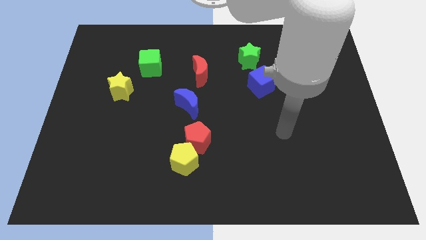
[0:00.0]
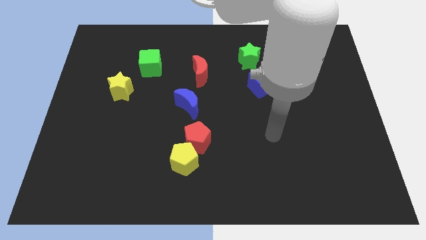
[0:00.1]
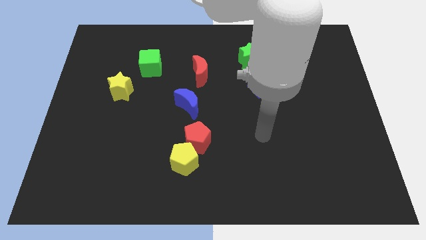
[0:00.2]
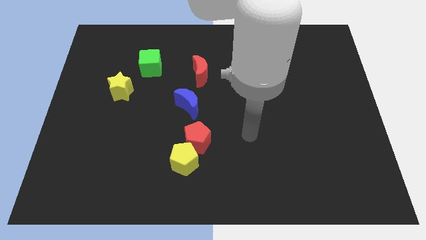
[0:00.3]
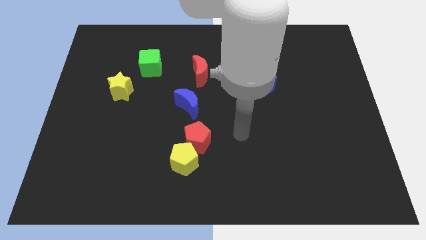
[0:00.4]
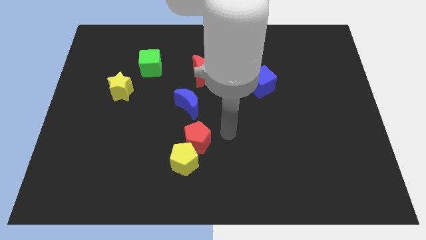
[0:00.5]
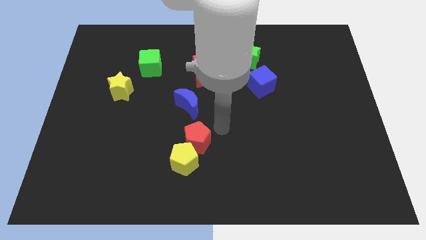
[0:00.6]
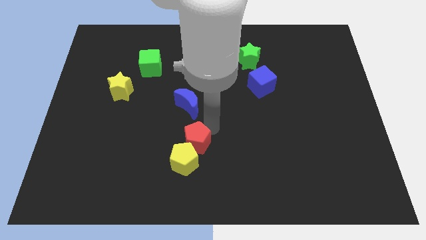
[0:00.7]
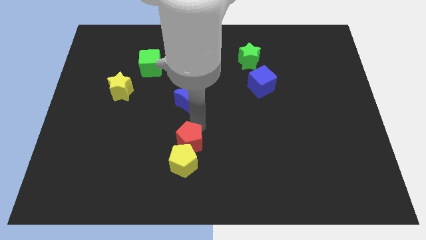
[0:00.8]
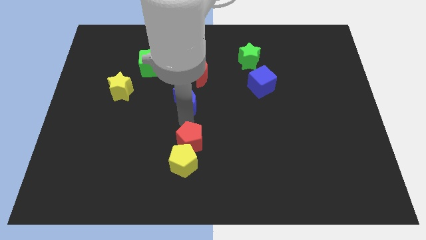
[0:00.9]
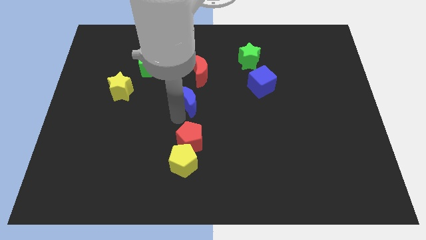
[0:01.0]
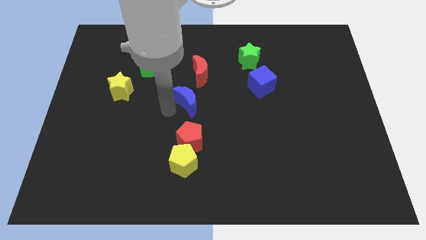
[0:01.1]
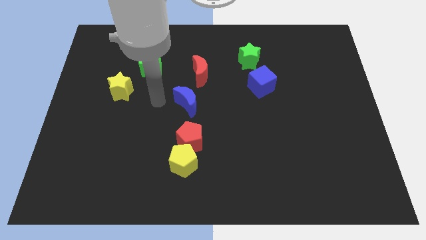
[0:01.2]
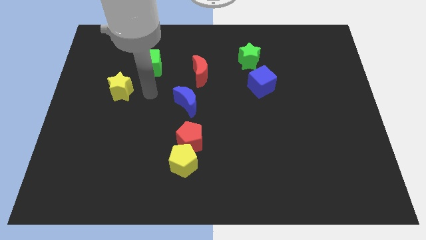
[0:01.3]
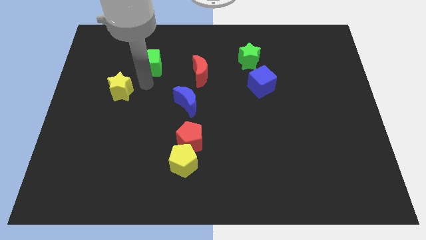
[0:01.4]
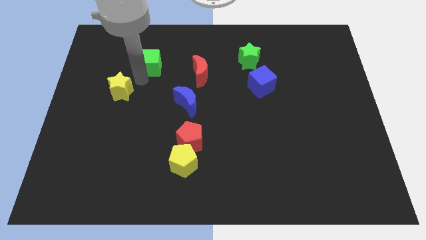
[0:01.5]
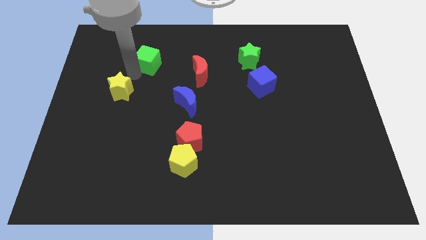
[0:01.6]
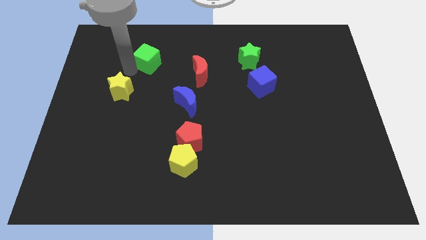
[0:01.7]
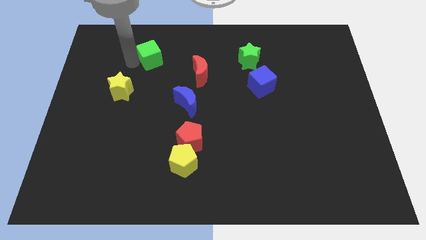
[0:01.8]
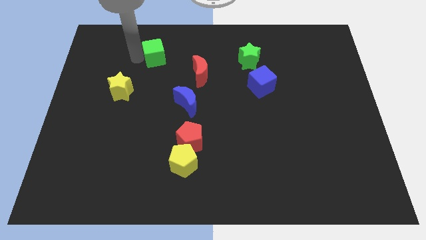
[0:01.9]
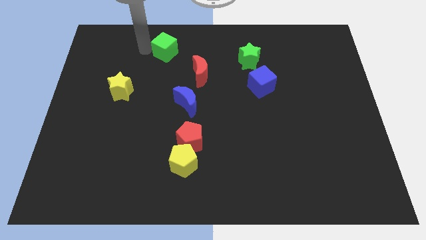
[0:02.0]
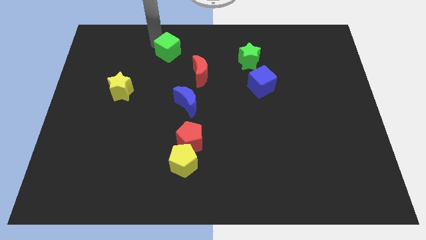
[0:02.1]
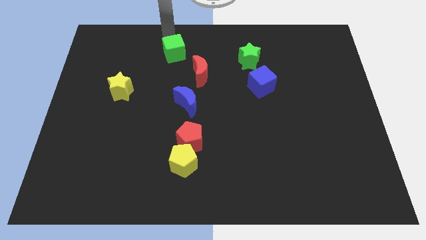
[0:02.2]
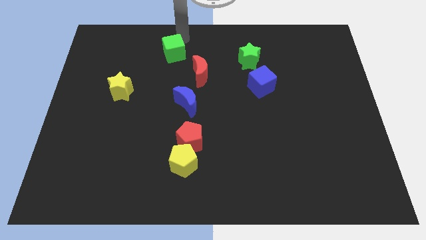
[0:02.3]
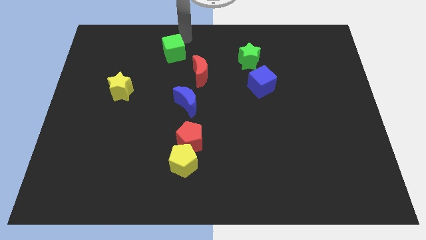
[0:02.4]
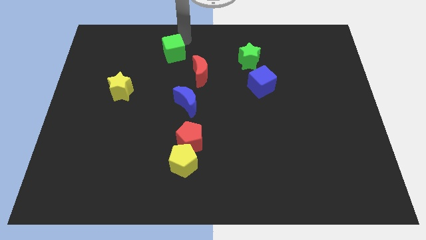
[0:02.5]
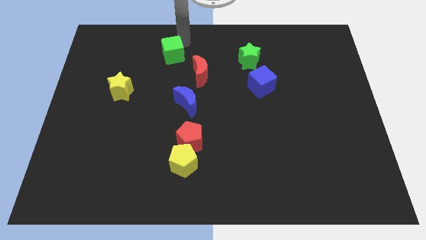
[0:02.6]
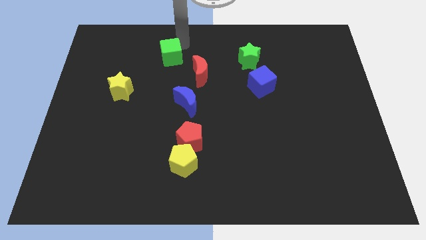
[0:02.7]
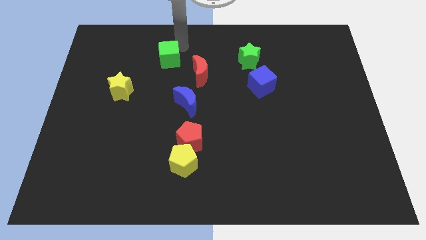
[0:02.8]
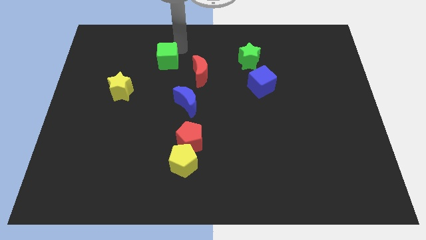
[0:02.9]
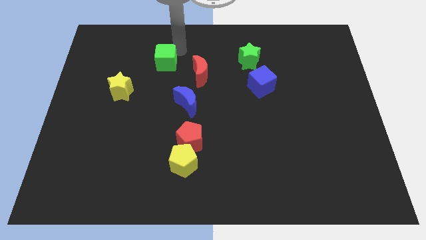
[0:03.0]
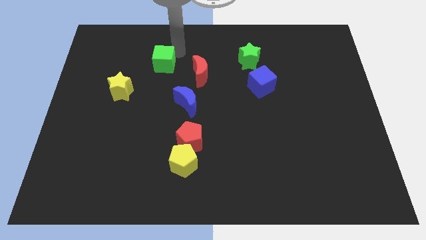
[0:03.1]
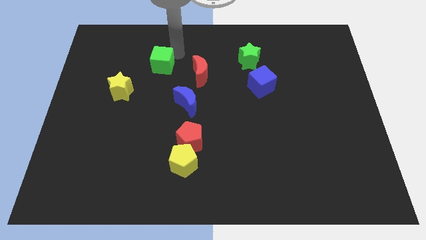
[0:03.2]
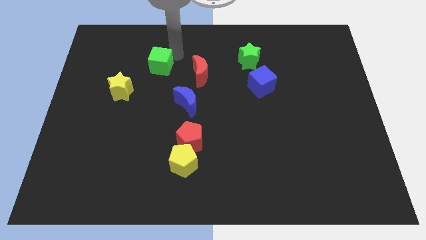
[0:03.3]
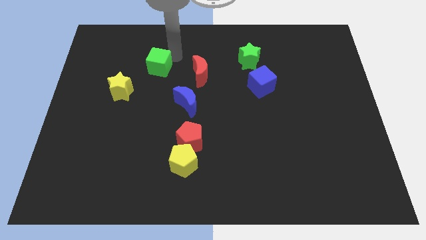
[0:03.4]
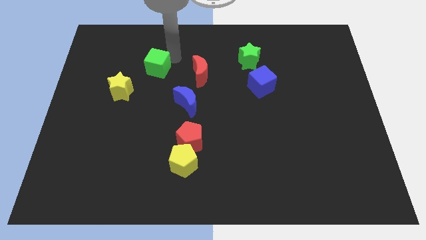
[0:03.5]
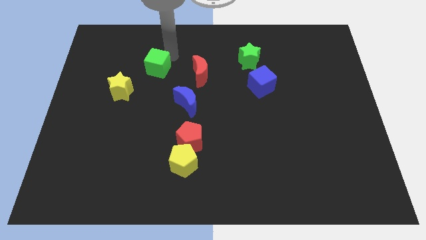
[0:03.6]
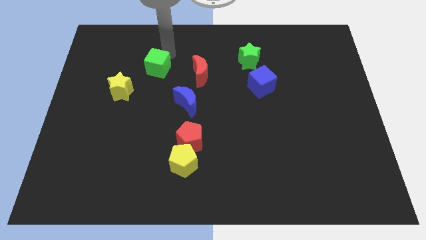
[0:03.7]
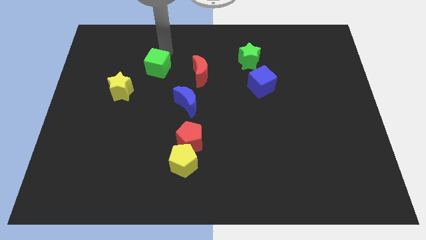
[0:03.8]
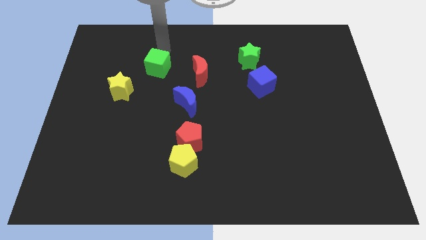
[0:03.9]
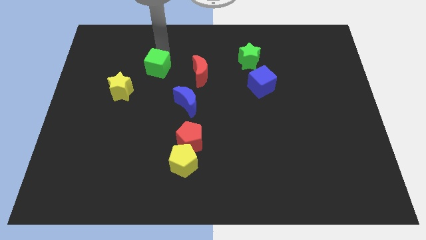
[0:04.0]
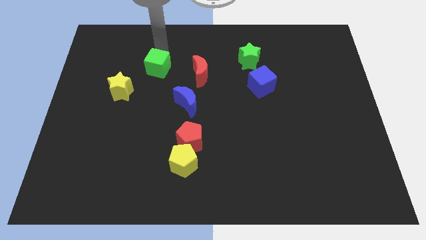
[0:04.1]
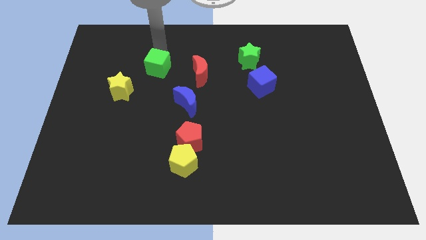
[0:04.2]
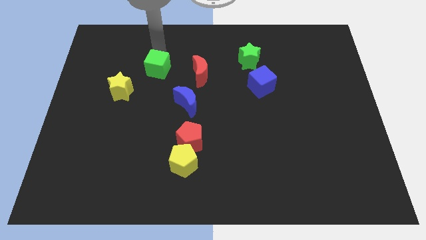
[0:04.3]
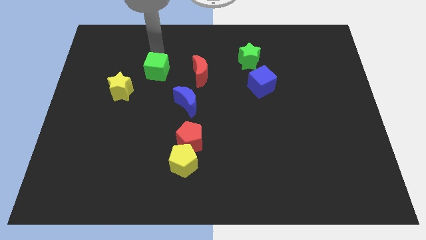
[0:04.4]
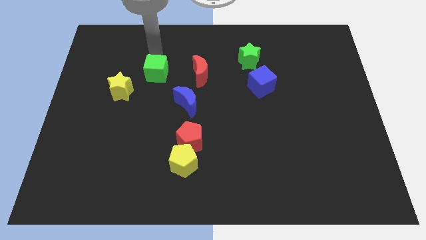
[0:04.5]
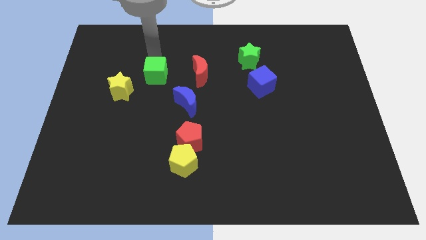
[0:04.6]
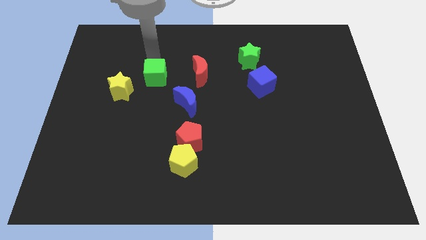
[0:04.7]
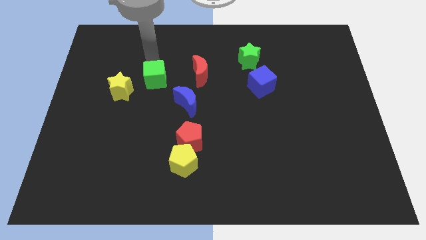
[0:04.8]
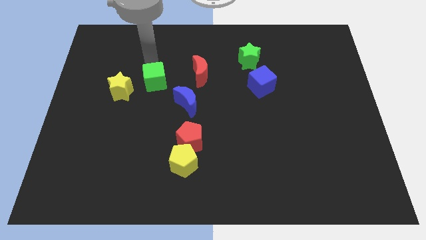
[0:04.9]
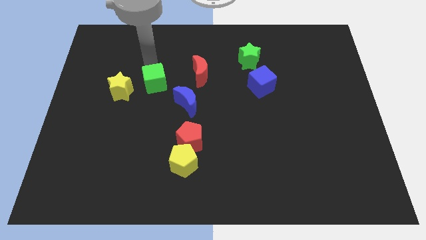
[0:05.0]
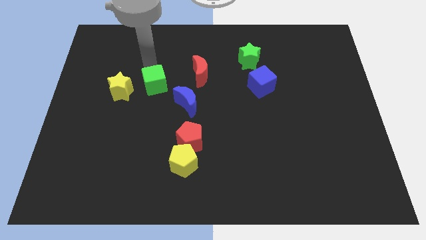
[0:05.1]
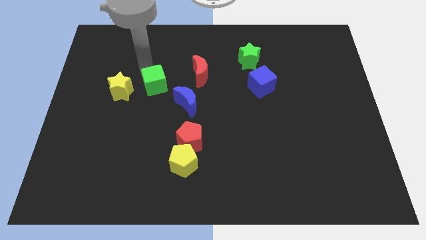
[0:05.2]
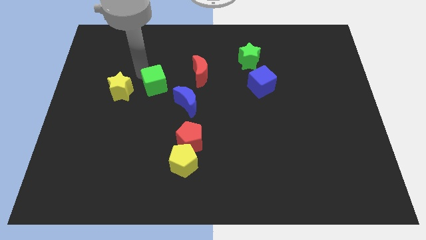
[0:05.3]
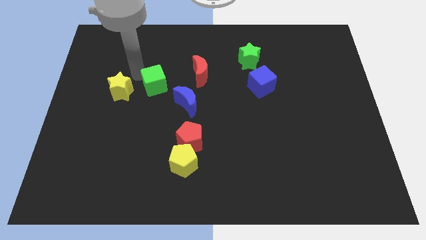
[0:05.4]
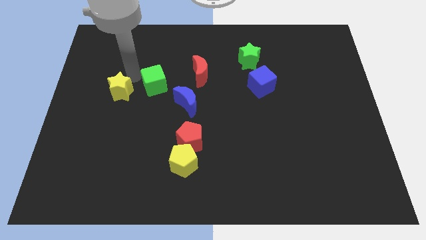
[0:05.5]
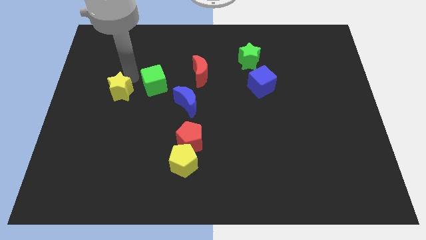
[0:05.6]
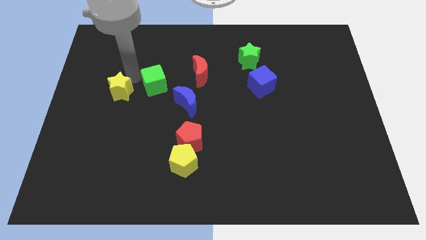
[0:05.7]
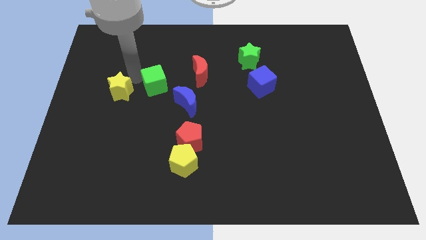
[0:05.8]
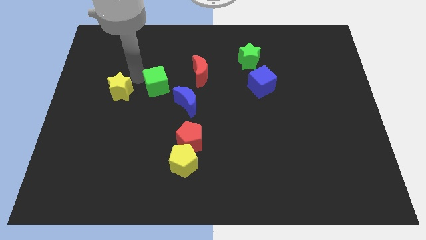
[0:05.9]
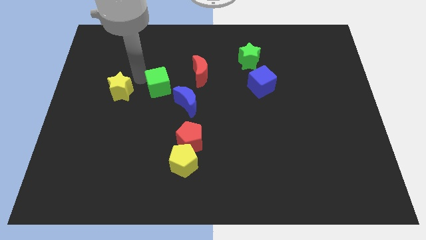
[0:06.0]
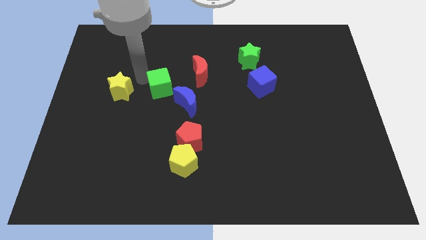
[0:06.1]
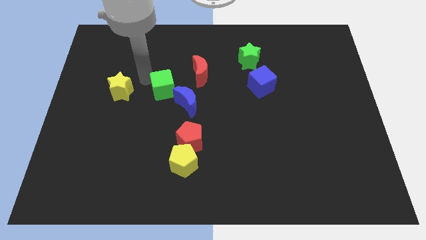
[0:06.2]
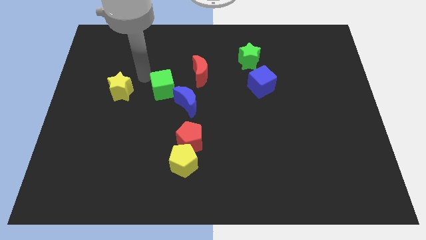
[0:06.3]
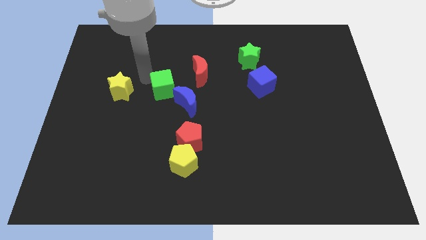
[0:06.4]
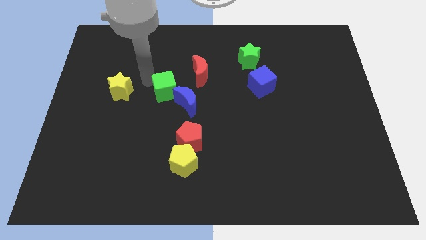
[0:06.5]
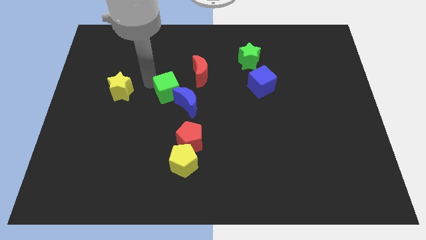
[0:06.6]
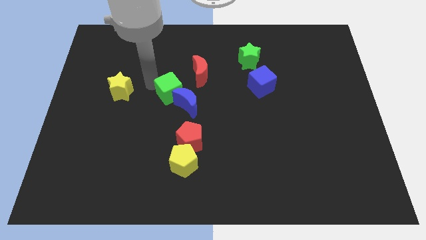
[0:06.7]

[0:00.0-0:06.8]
put the green cube towards the blue moon
